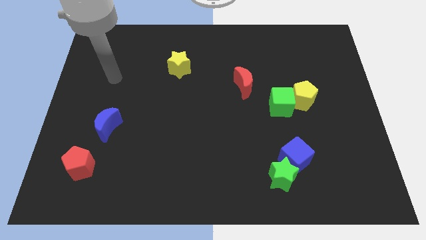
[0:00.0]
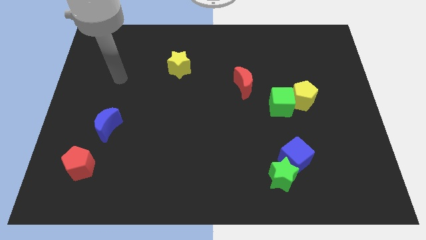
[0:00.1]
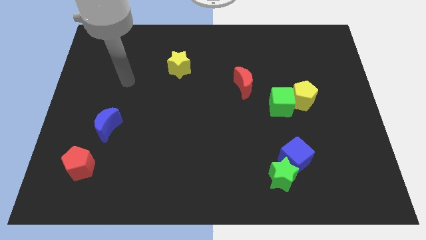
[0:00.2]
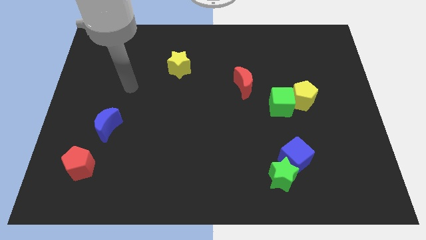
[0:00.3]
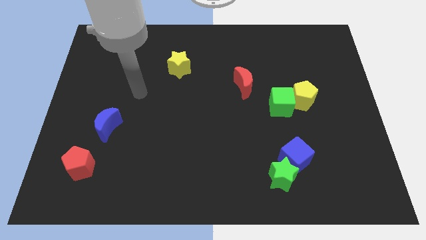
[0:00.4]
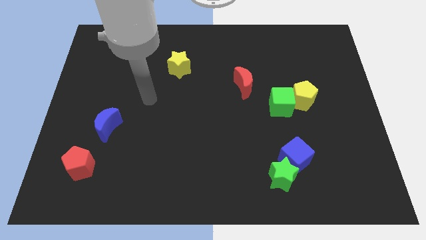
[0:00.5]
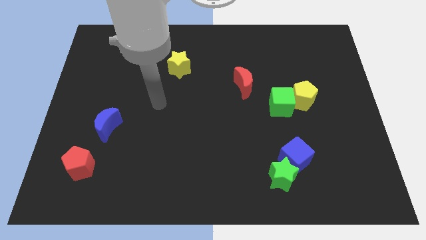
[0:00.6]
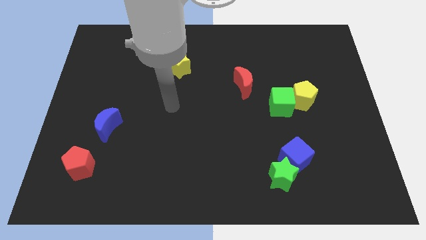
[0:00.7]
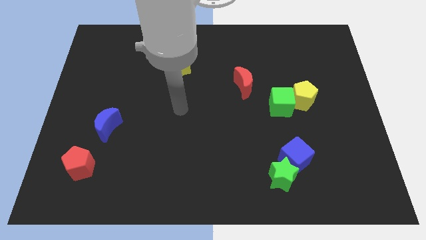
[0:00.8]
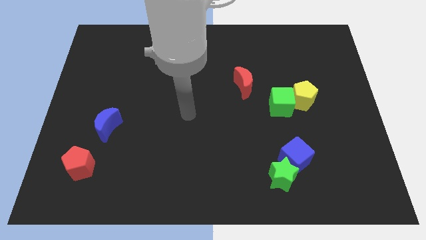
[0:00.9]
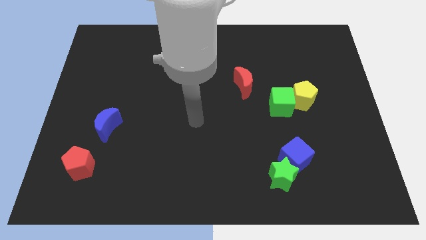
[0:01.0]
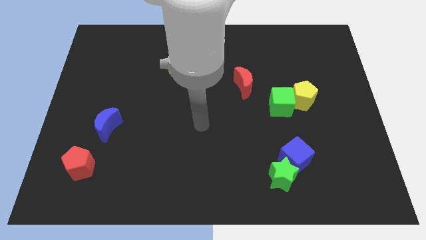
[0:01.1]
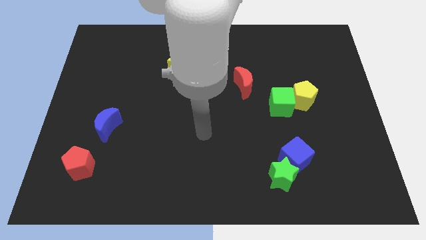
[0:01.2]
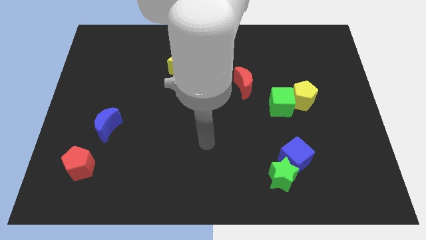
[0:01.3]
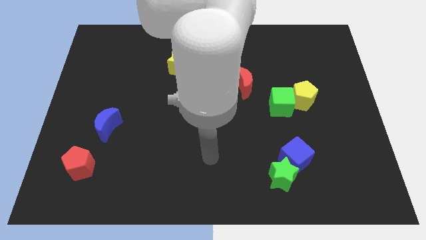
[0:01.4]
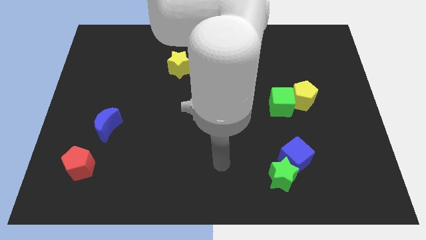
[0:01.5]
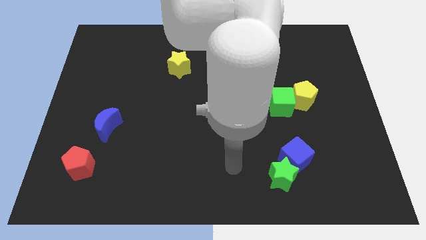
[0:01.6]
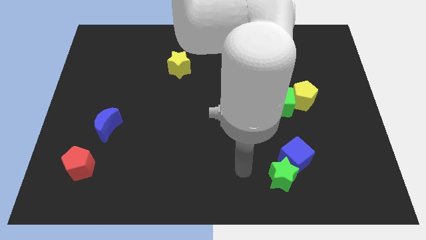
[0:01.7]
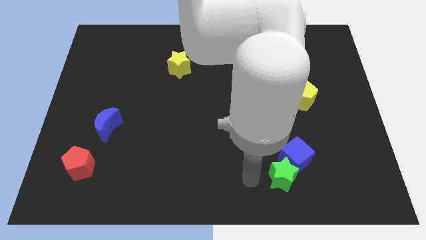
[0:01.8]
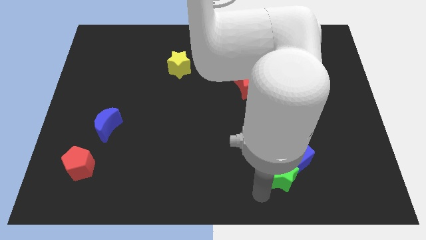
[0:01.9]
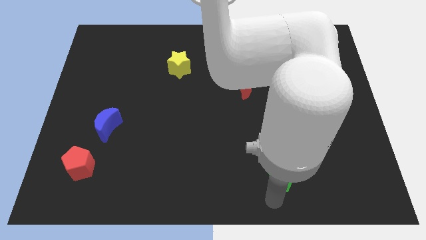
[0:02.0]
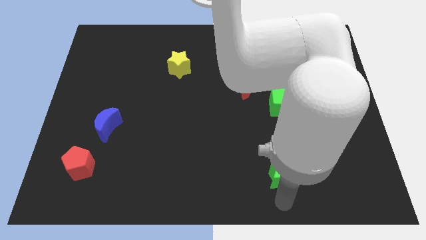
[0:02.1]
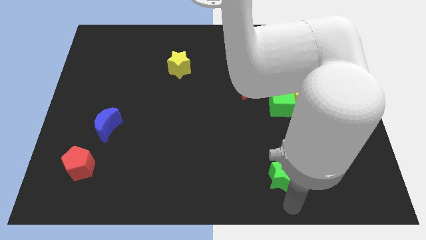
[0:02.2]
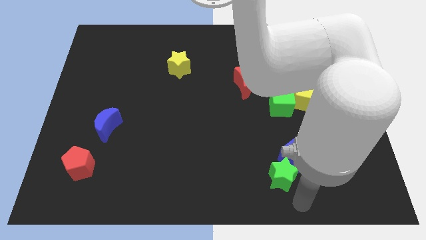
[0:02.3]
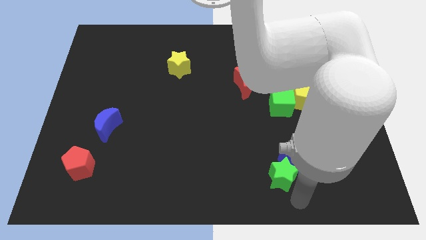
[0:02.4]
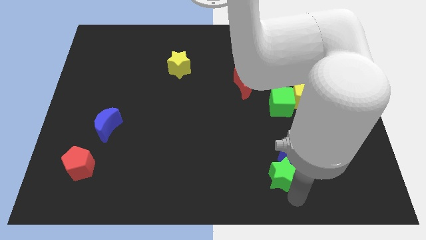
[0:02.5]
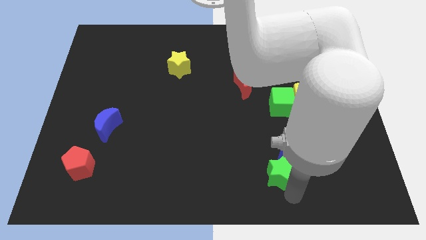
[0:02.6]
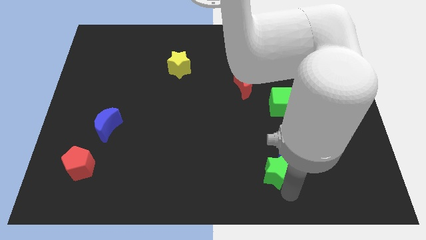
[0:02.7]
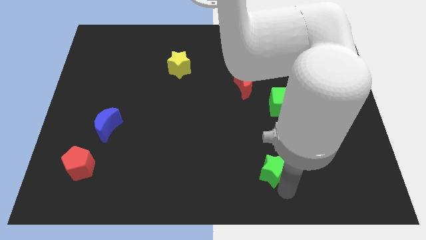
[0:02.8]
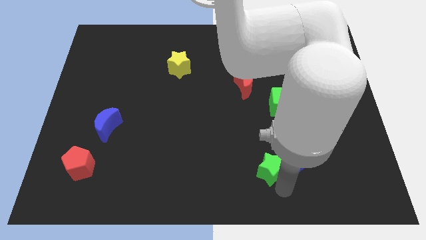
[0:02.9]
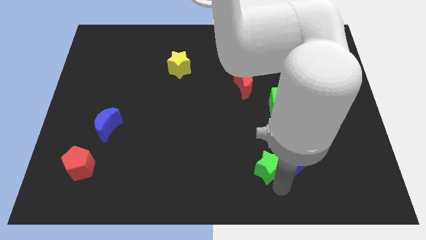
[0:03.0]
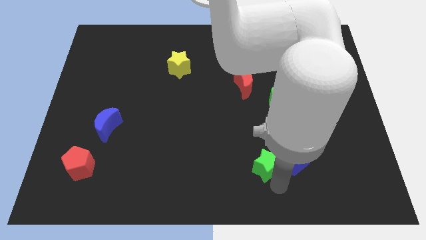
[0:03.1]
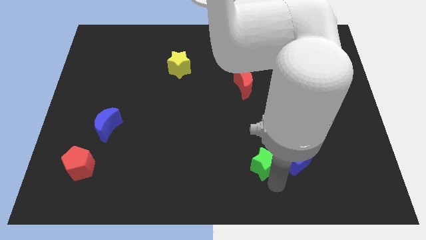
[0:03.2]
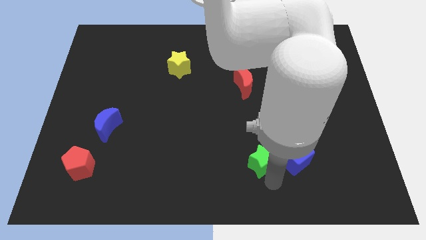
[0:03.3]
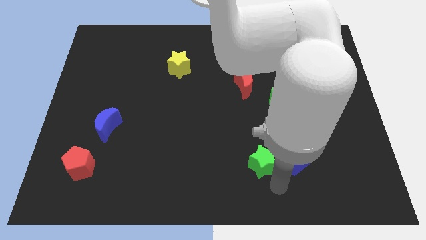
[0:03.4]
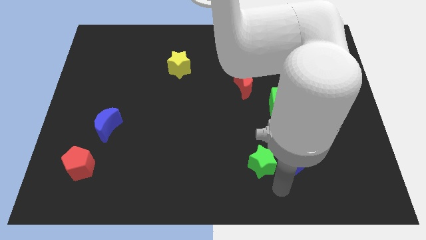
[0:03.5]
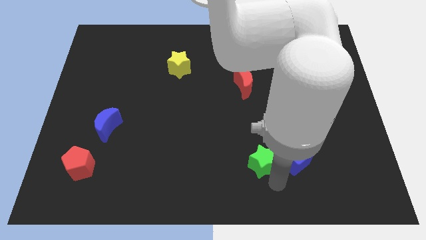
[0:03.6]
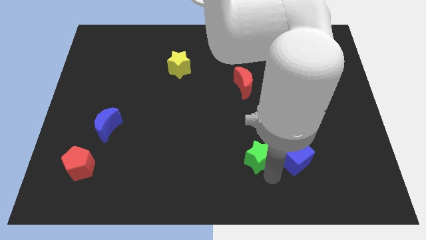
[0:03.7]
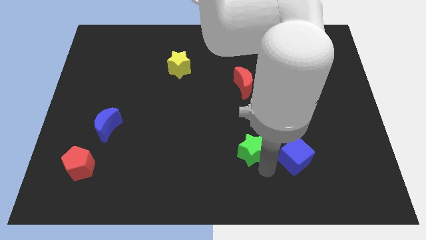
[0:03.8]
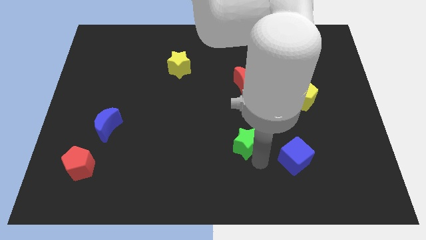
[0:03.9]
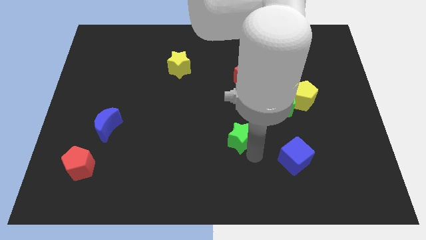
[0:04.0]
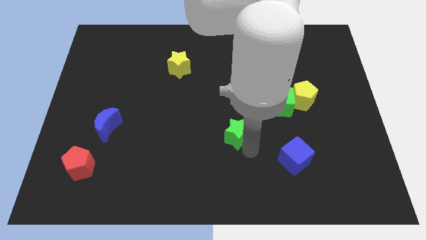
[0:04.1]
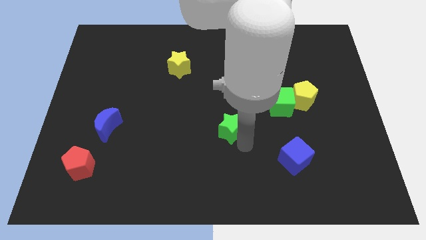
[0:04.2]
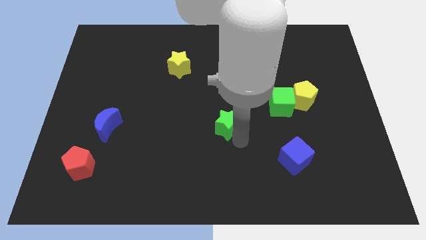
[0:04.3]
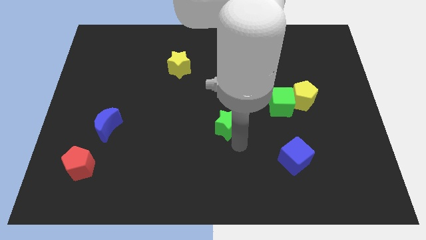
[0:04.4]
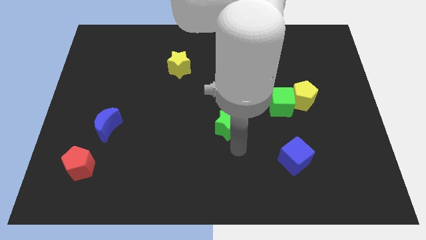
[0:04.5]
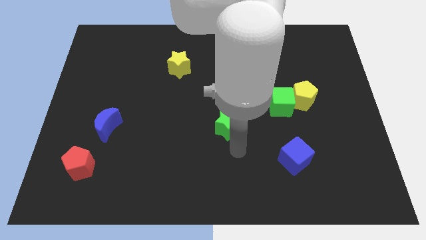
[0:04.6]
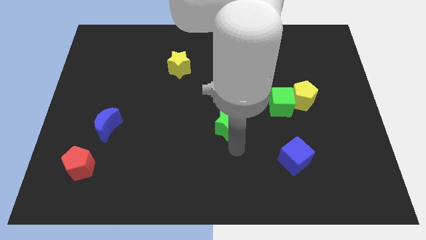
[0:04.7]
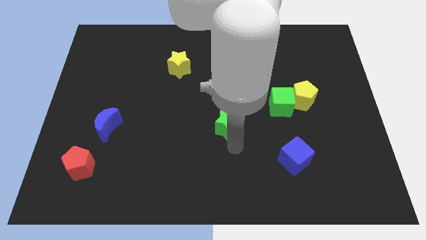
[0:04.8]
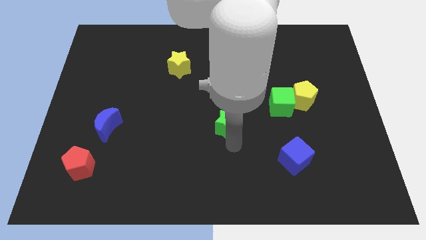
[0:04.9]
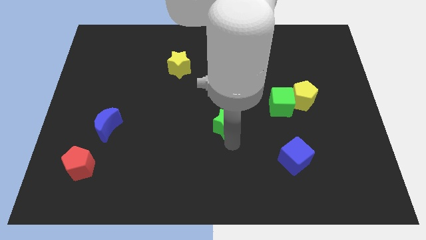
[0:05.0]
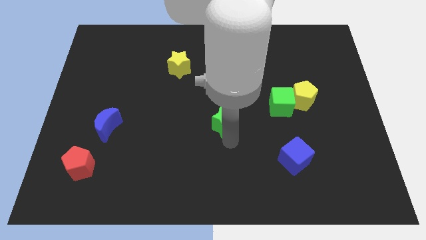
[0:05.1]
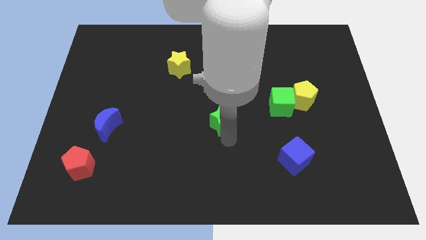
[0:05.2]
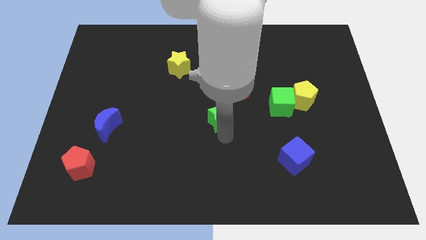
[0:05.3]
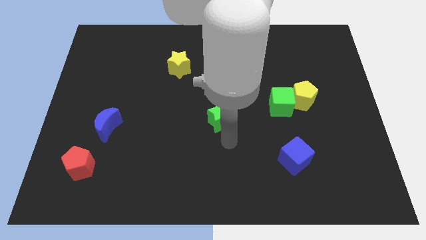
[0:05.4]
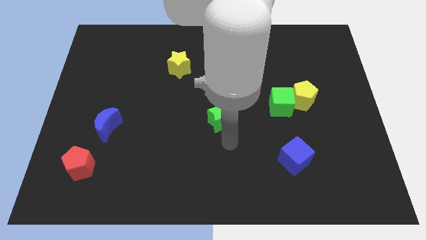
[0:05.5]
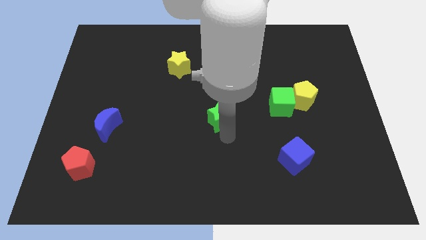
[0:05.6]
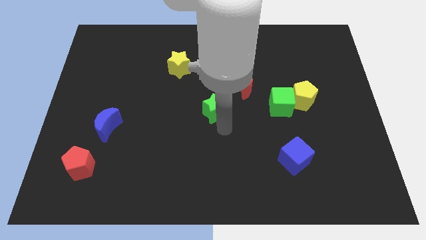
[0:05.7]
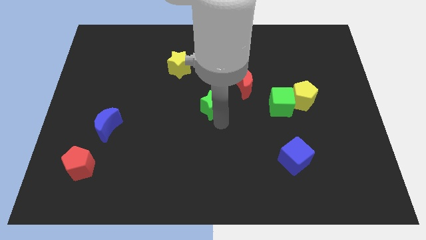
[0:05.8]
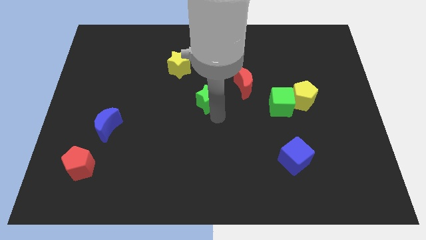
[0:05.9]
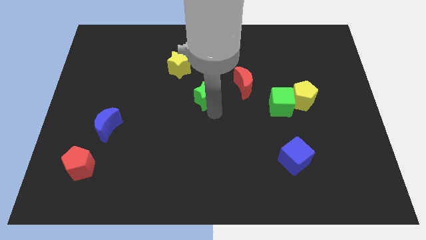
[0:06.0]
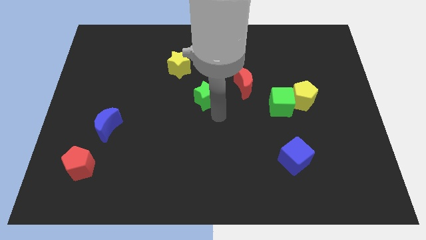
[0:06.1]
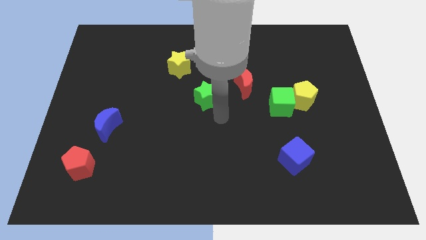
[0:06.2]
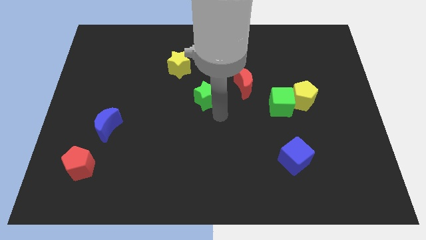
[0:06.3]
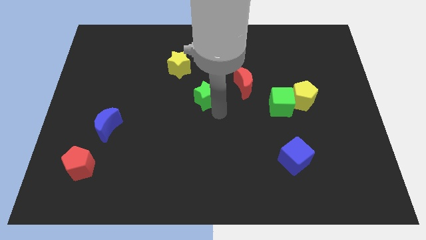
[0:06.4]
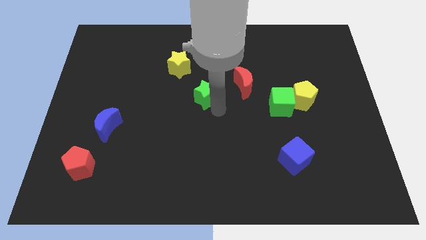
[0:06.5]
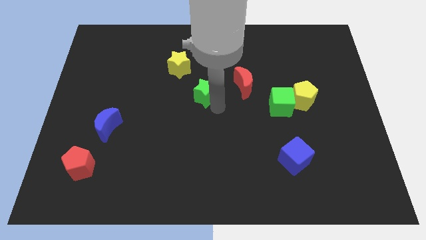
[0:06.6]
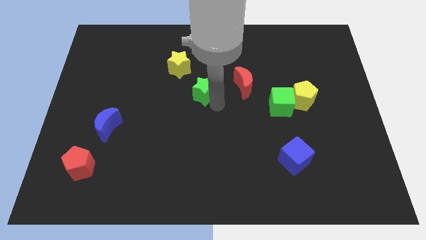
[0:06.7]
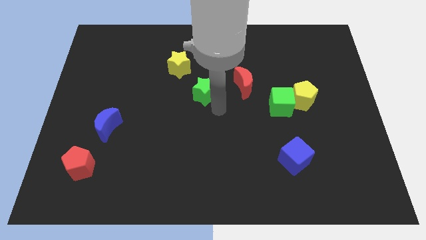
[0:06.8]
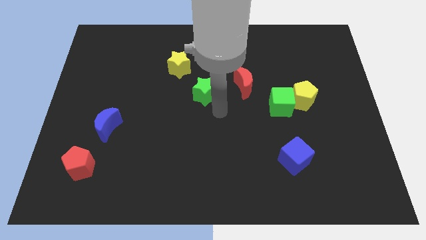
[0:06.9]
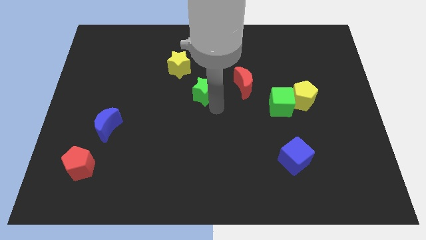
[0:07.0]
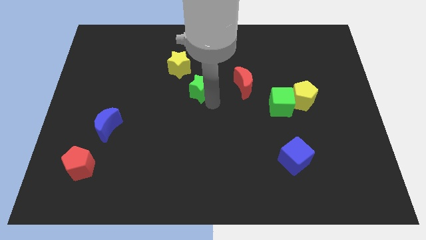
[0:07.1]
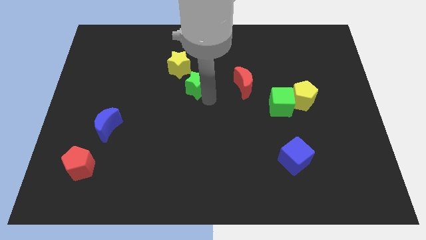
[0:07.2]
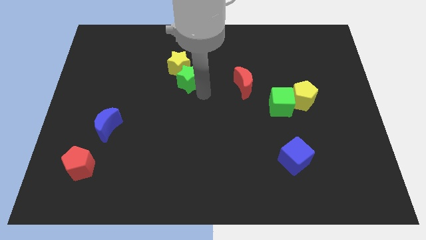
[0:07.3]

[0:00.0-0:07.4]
put the green star close to the yellow star
